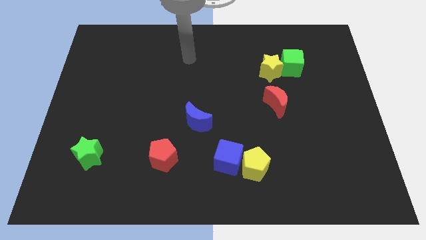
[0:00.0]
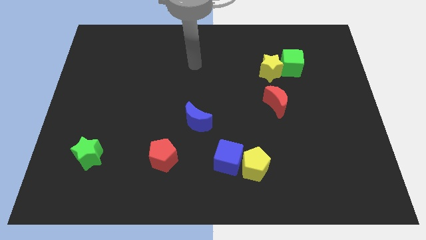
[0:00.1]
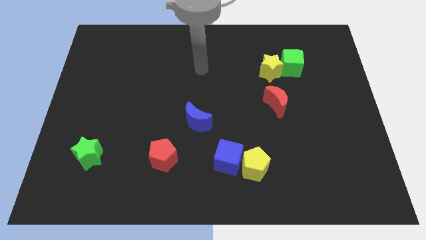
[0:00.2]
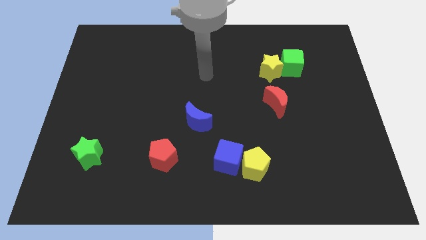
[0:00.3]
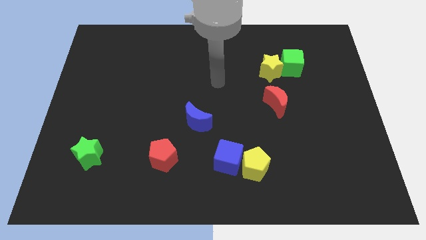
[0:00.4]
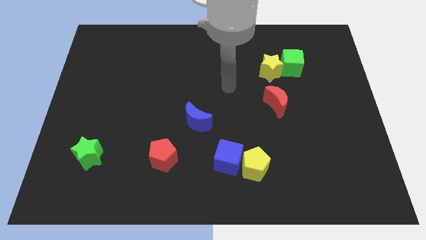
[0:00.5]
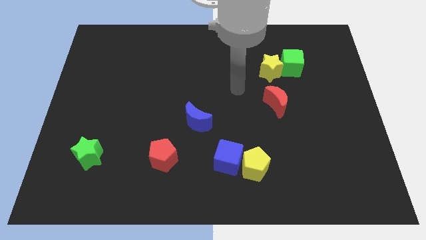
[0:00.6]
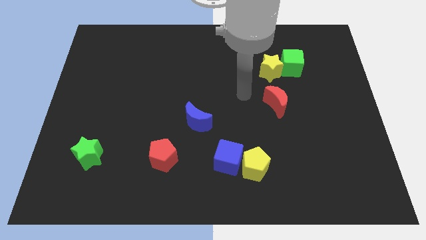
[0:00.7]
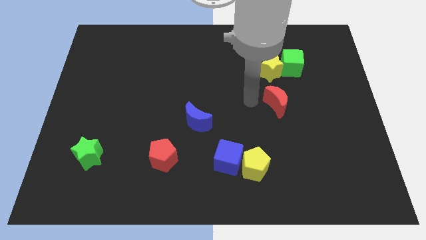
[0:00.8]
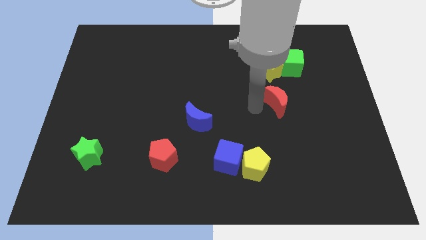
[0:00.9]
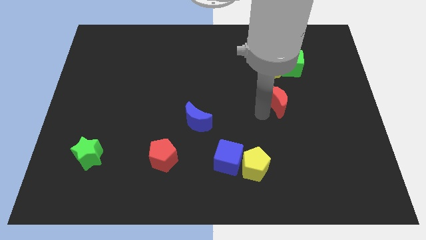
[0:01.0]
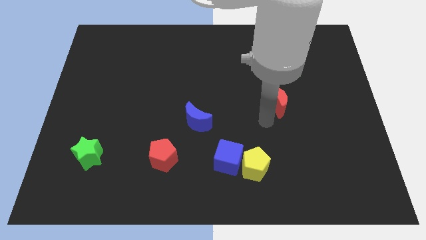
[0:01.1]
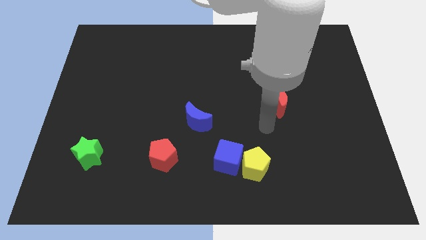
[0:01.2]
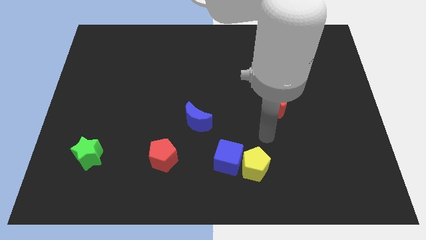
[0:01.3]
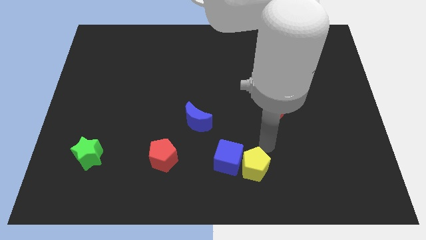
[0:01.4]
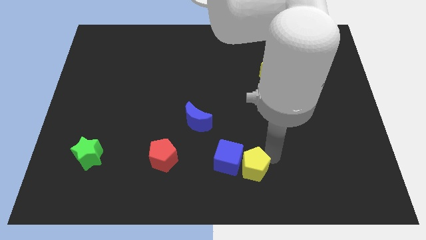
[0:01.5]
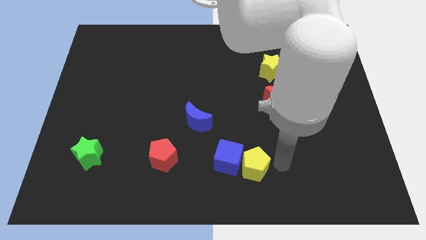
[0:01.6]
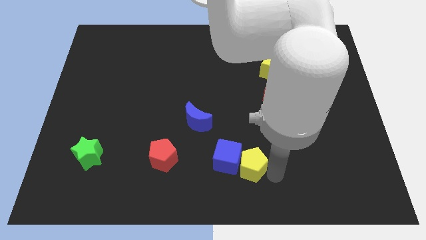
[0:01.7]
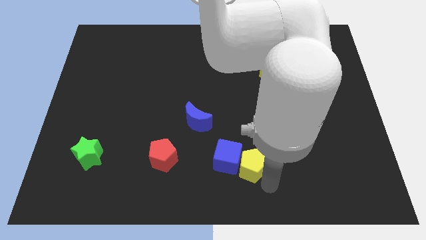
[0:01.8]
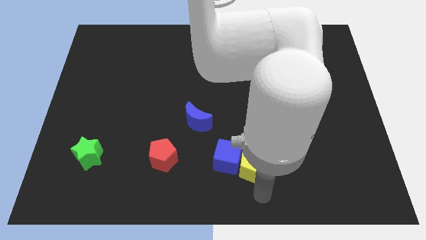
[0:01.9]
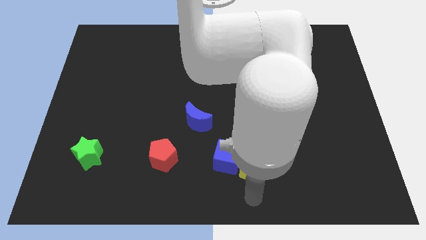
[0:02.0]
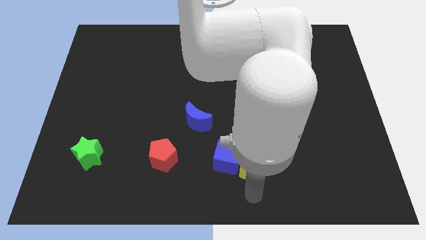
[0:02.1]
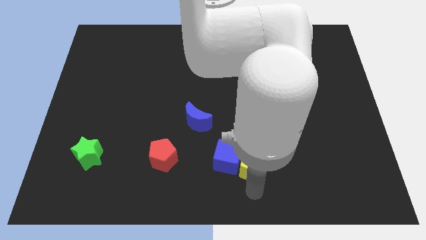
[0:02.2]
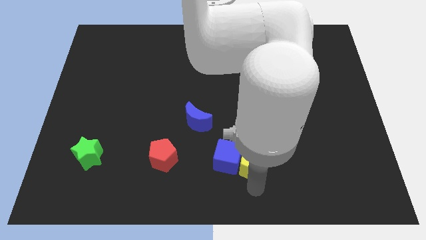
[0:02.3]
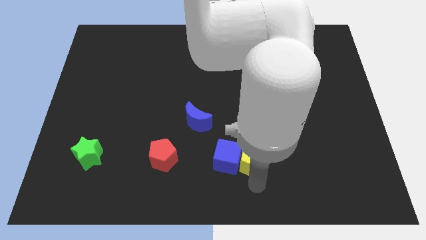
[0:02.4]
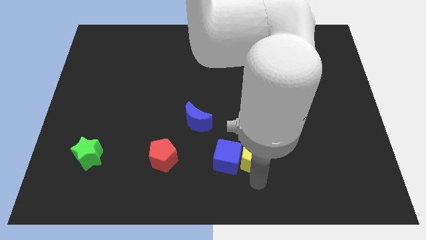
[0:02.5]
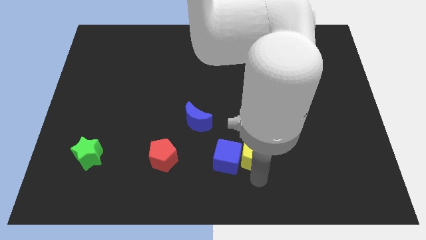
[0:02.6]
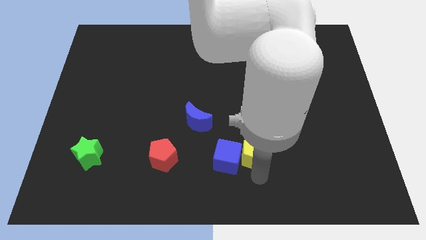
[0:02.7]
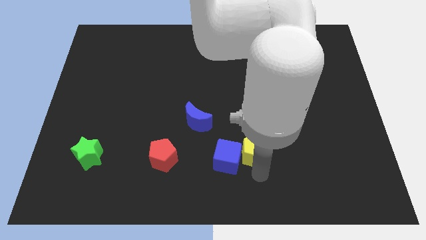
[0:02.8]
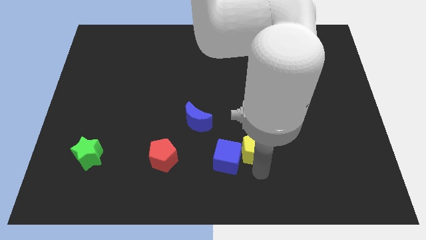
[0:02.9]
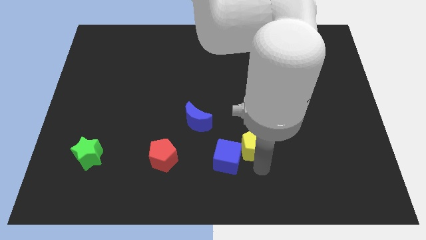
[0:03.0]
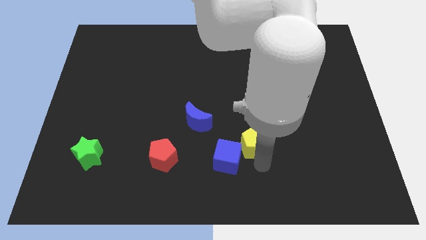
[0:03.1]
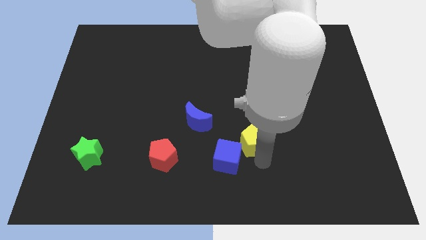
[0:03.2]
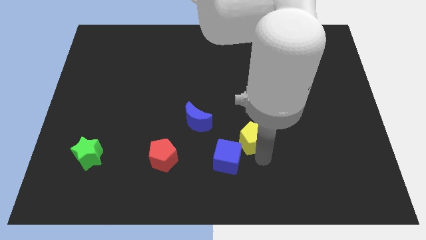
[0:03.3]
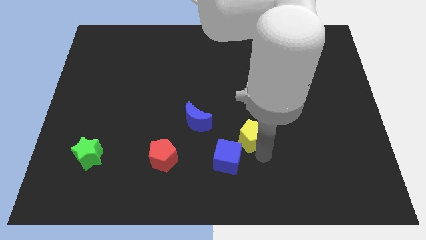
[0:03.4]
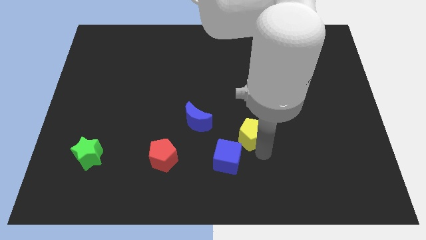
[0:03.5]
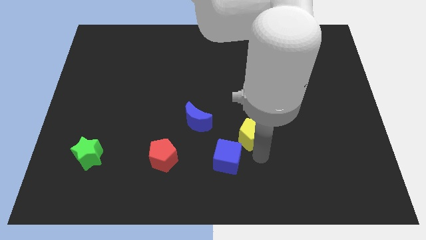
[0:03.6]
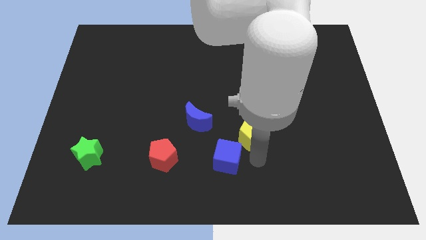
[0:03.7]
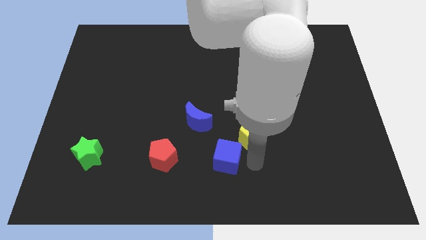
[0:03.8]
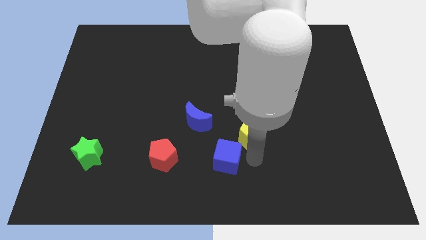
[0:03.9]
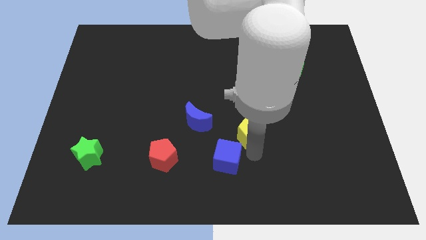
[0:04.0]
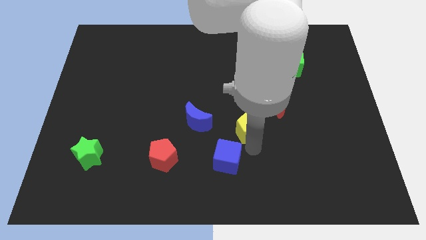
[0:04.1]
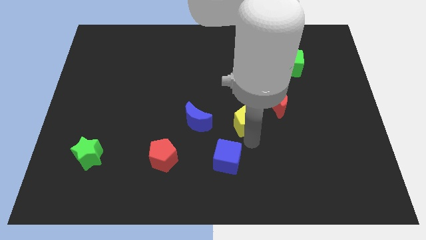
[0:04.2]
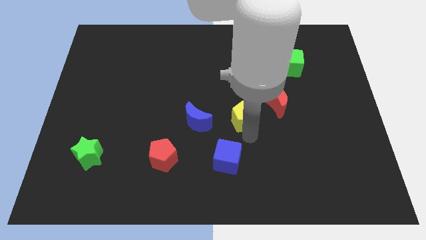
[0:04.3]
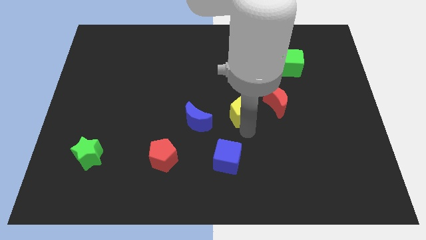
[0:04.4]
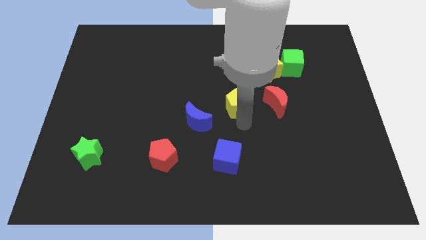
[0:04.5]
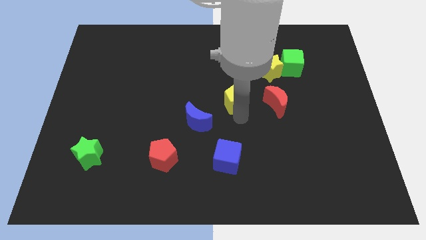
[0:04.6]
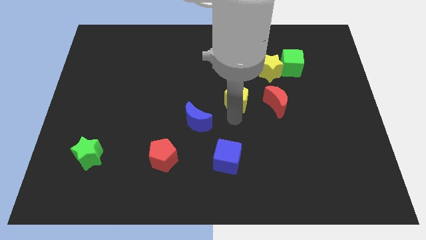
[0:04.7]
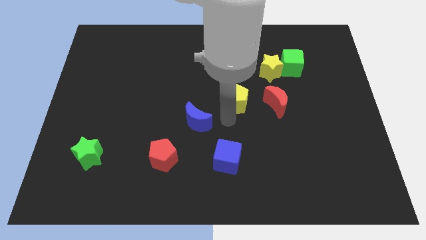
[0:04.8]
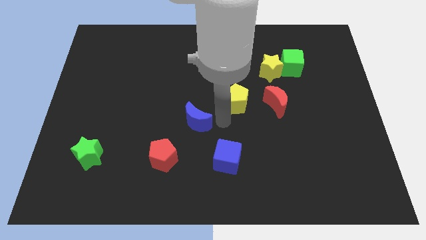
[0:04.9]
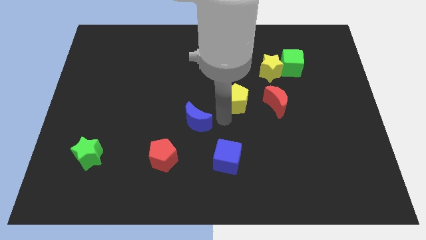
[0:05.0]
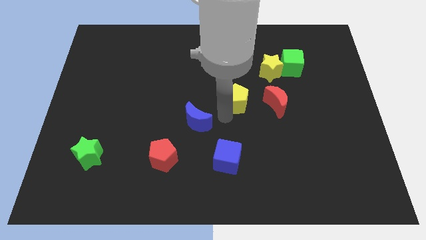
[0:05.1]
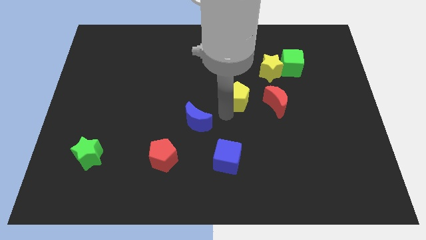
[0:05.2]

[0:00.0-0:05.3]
put the yellow pentagon to the bottom left side of the yellow star

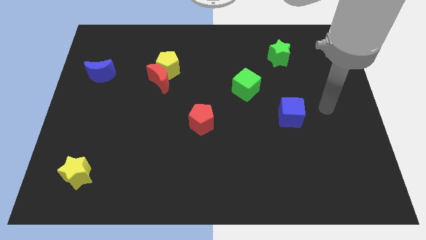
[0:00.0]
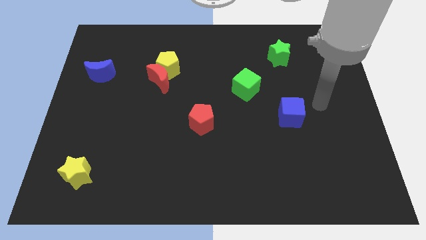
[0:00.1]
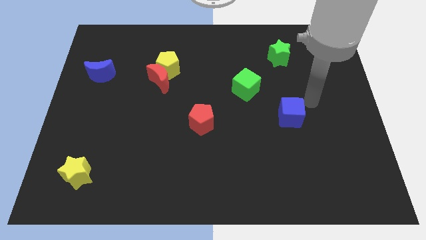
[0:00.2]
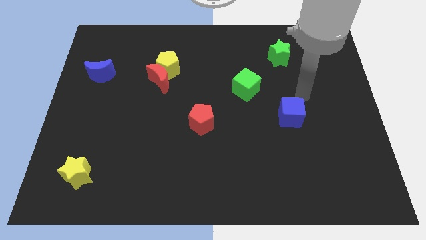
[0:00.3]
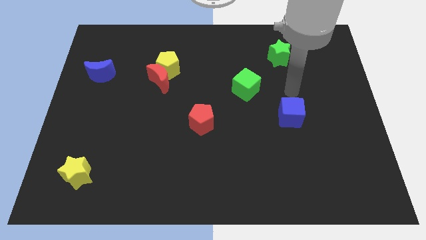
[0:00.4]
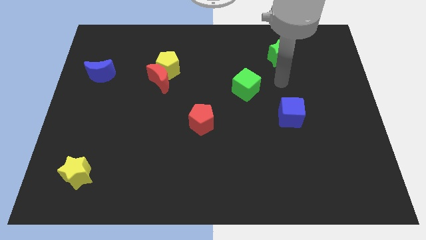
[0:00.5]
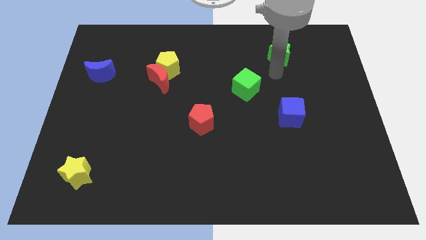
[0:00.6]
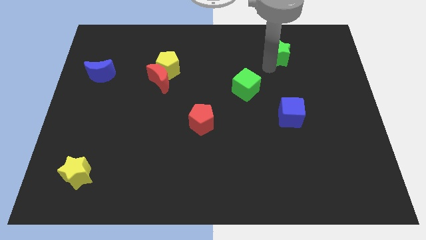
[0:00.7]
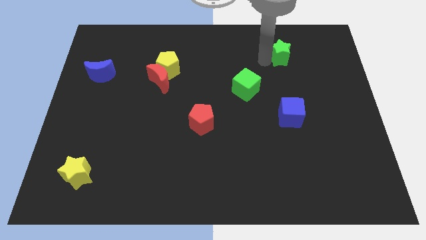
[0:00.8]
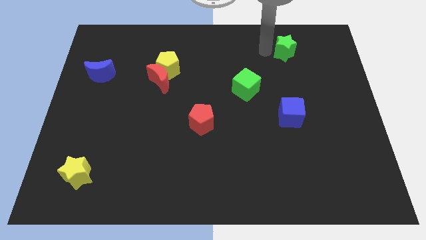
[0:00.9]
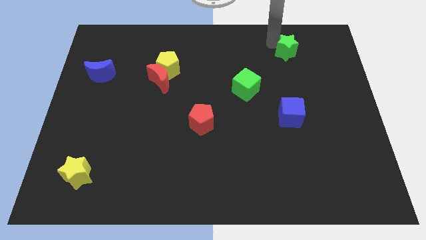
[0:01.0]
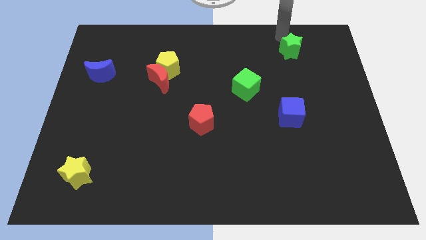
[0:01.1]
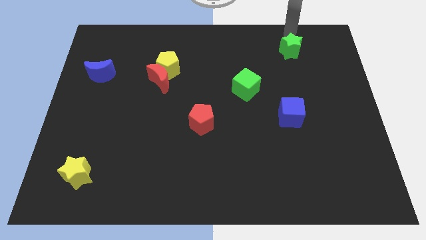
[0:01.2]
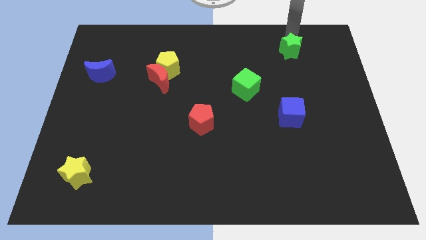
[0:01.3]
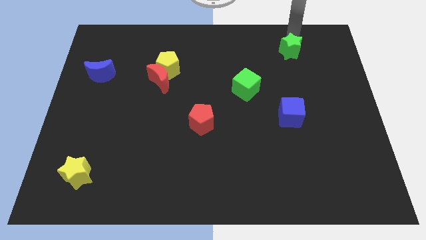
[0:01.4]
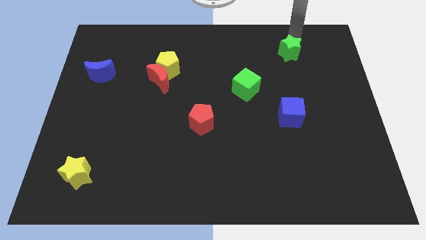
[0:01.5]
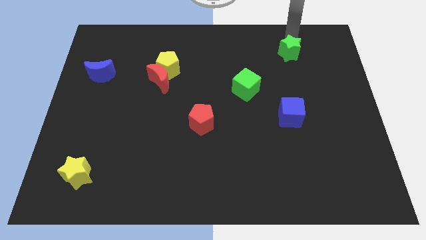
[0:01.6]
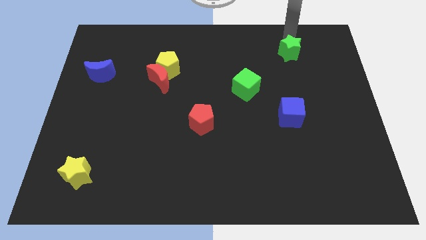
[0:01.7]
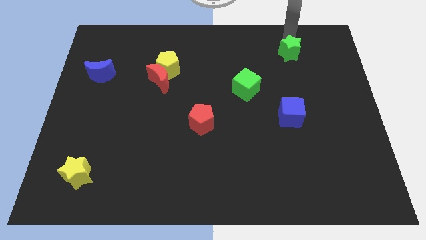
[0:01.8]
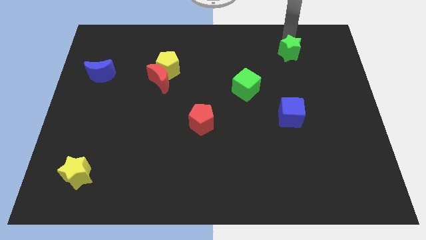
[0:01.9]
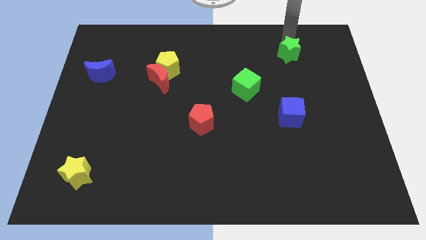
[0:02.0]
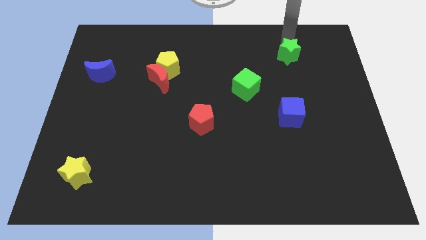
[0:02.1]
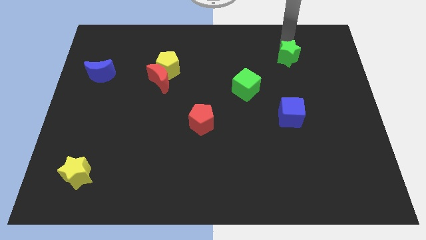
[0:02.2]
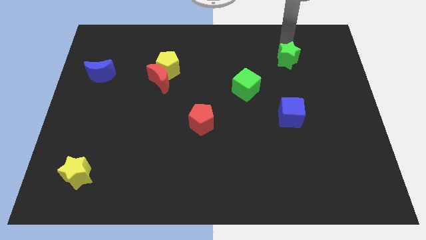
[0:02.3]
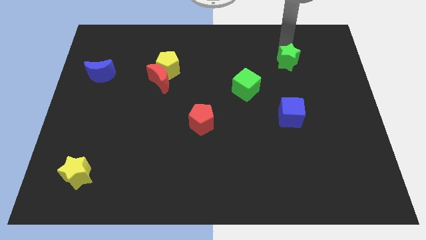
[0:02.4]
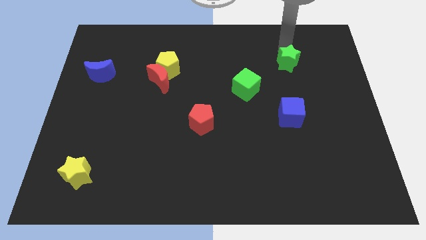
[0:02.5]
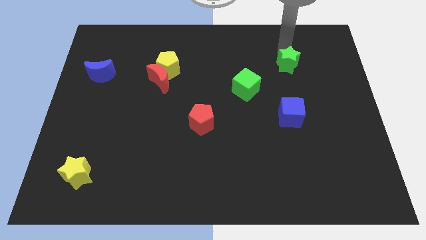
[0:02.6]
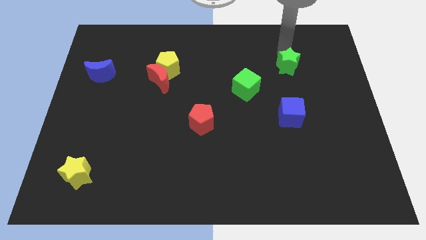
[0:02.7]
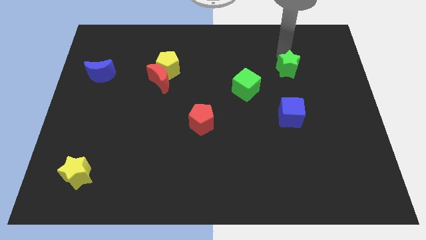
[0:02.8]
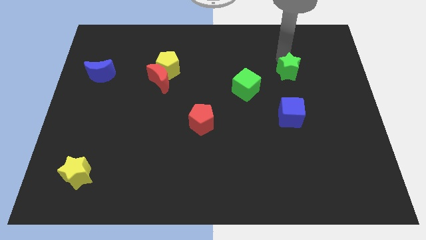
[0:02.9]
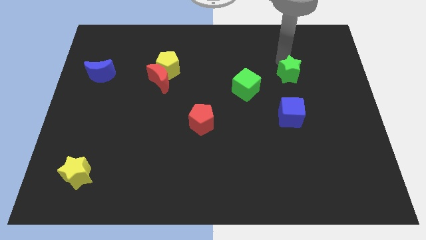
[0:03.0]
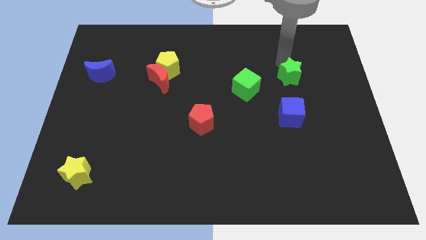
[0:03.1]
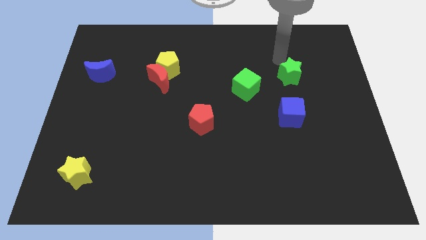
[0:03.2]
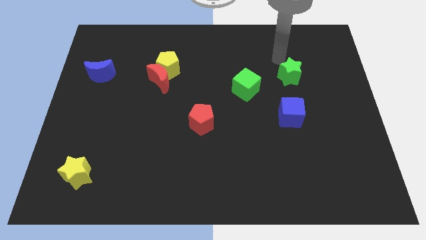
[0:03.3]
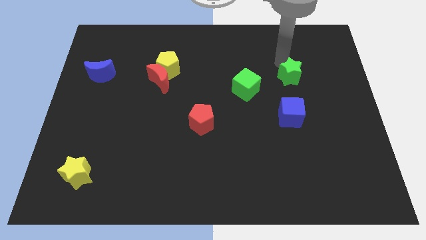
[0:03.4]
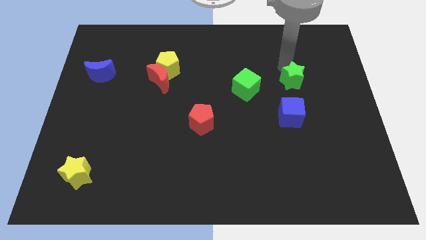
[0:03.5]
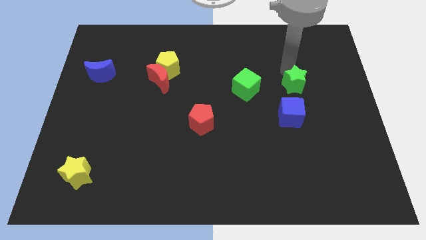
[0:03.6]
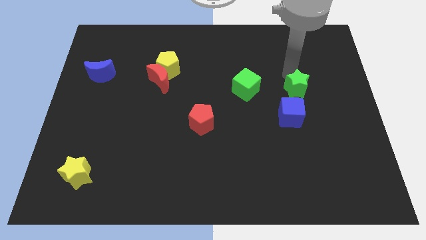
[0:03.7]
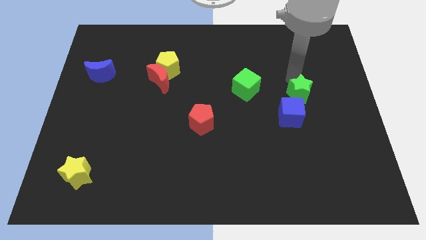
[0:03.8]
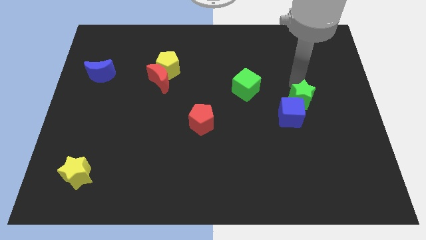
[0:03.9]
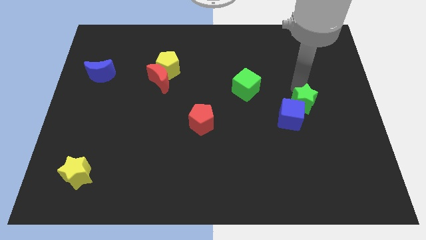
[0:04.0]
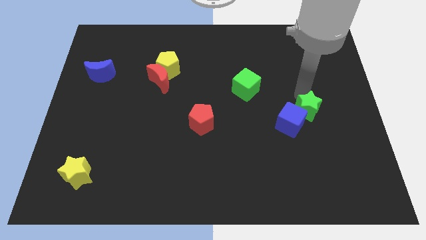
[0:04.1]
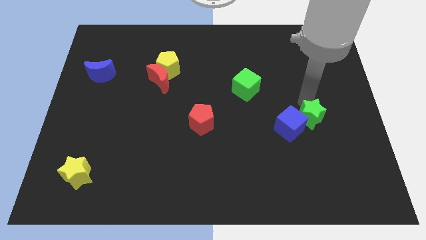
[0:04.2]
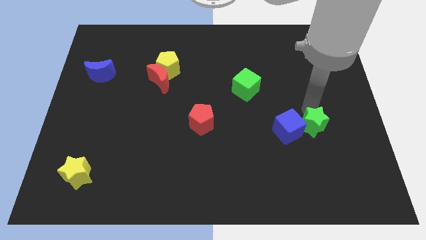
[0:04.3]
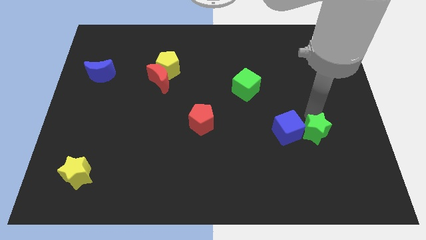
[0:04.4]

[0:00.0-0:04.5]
slide the green star diagonally down and to the right of the blue cube
